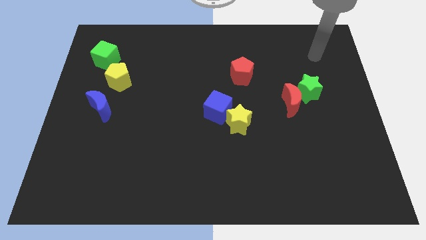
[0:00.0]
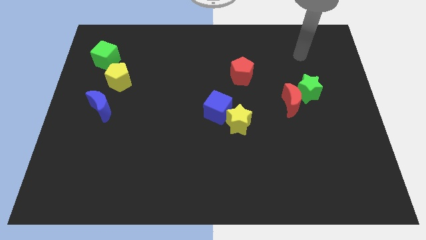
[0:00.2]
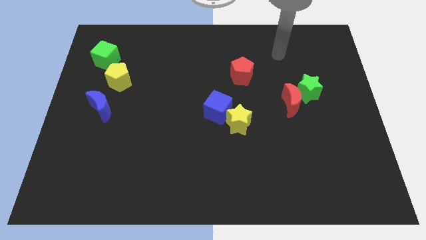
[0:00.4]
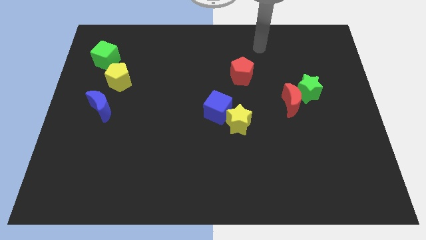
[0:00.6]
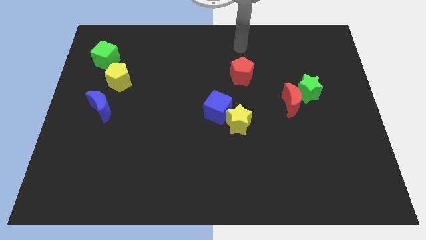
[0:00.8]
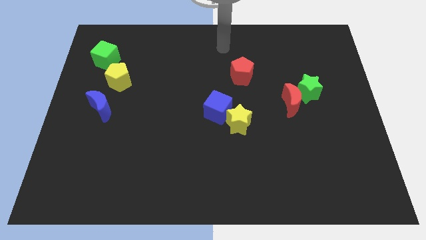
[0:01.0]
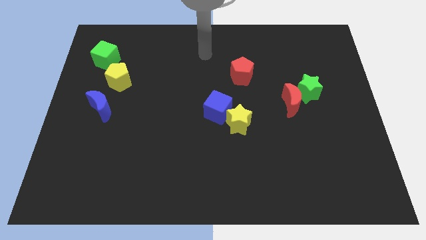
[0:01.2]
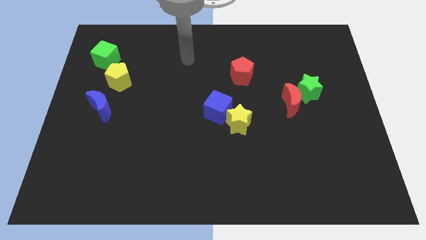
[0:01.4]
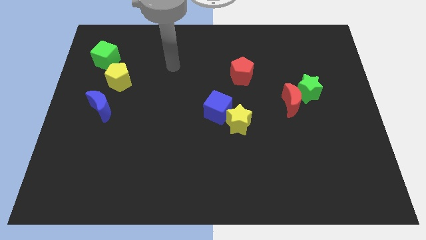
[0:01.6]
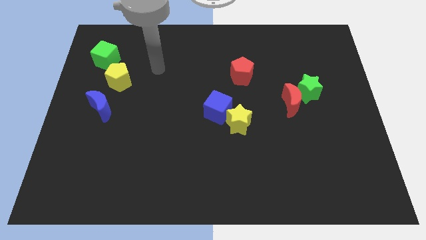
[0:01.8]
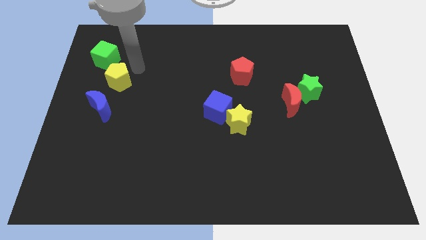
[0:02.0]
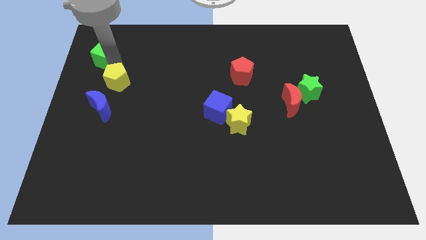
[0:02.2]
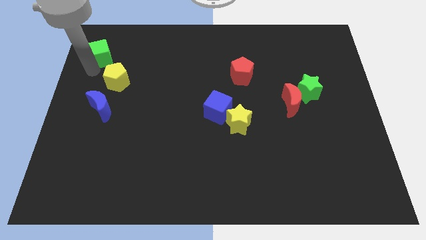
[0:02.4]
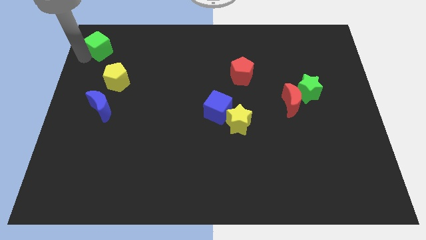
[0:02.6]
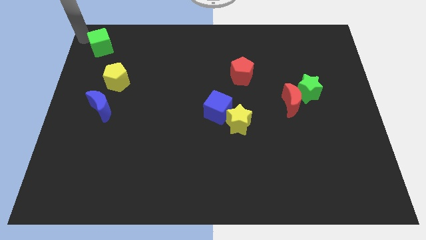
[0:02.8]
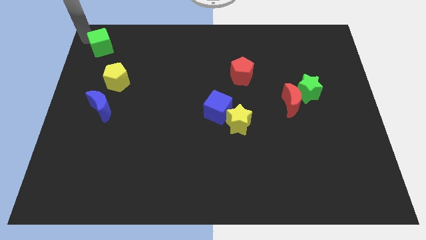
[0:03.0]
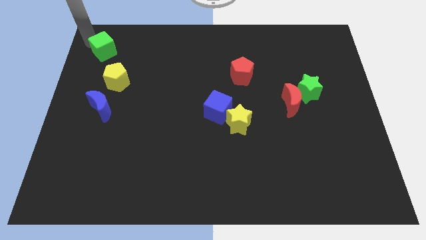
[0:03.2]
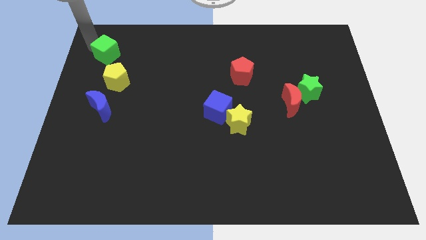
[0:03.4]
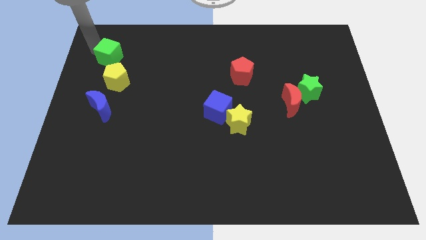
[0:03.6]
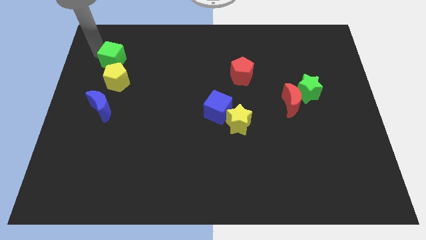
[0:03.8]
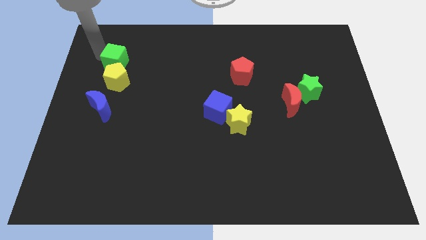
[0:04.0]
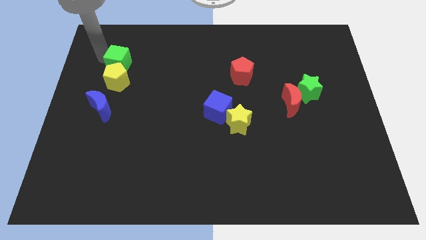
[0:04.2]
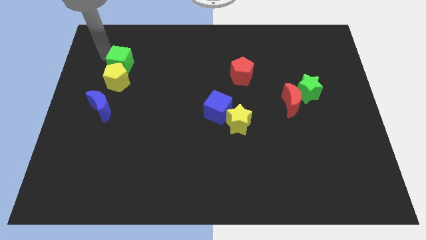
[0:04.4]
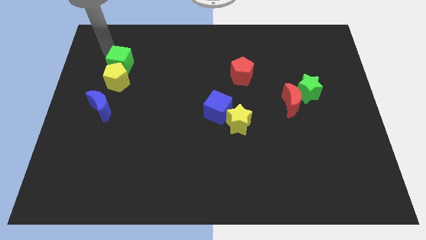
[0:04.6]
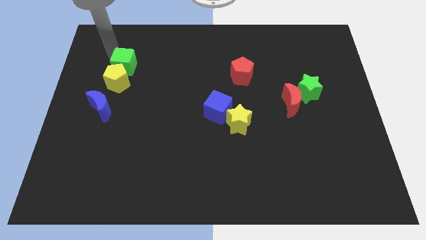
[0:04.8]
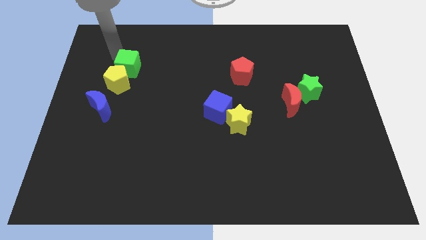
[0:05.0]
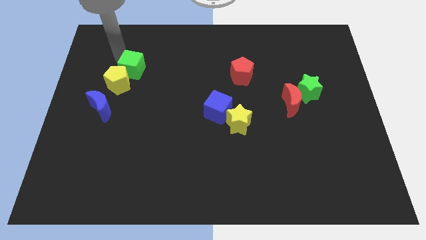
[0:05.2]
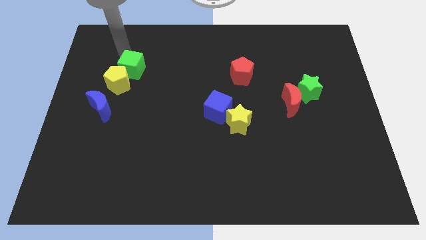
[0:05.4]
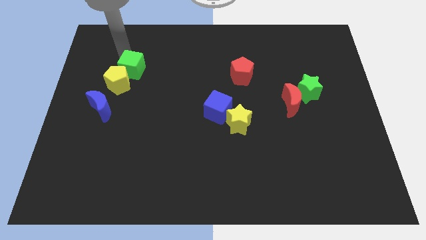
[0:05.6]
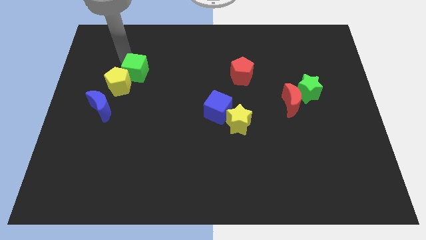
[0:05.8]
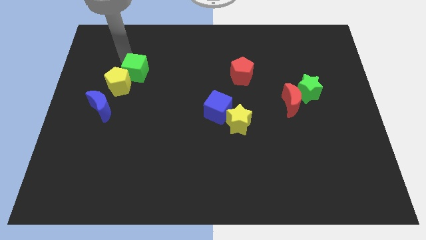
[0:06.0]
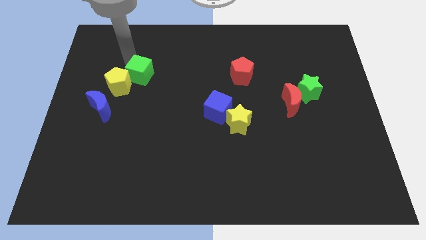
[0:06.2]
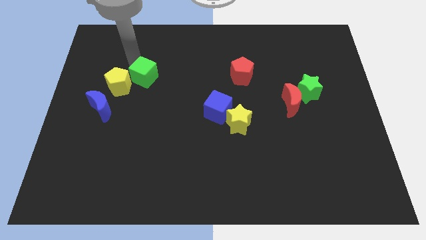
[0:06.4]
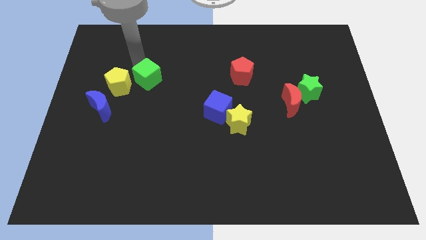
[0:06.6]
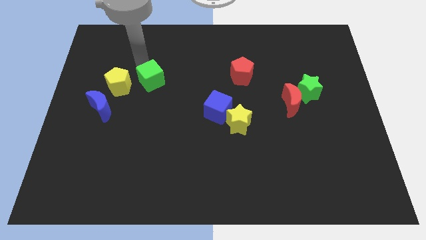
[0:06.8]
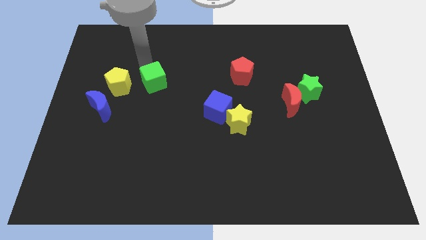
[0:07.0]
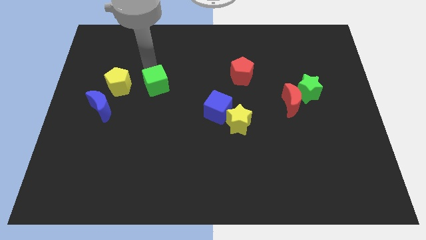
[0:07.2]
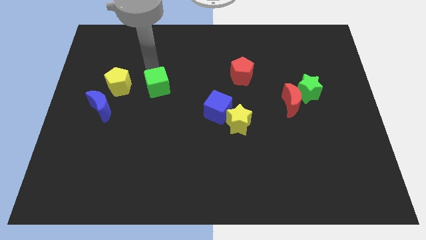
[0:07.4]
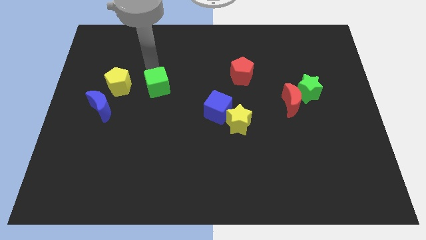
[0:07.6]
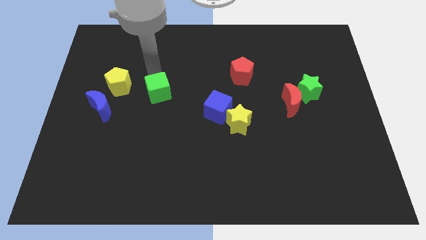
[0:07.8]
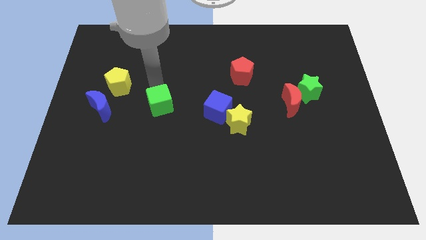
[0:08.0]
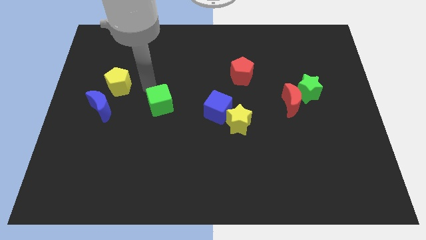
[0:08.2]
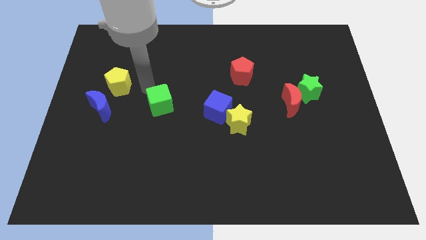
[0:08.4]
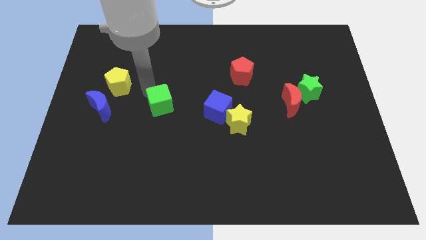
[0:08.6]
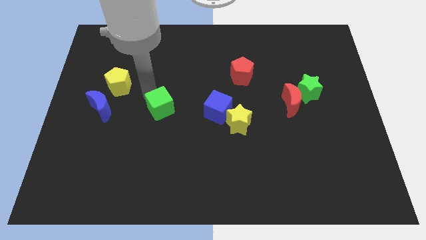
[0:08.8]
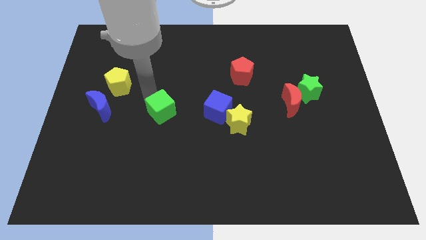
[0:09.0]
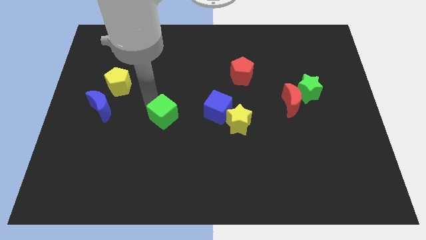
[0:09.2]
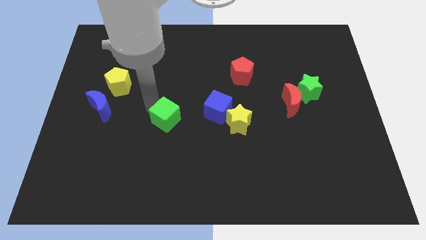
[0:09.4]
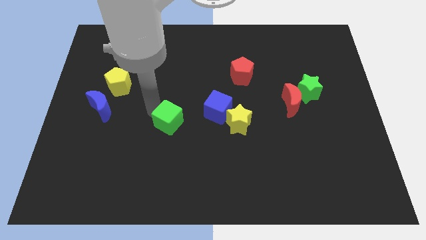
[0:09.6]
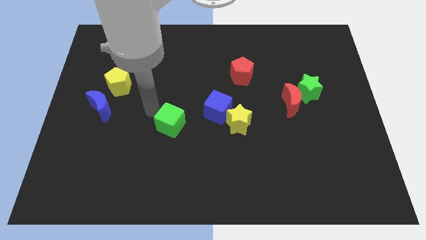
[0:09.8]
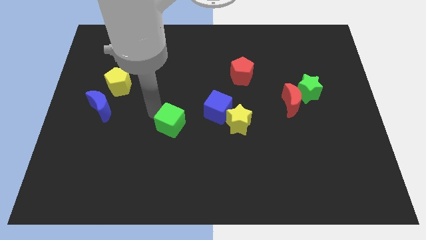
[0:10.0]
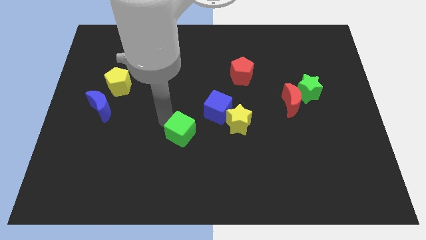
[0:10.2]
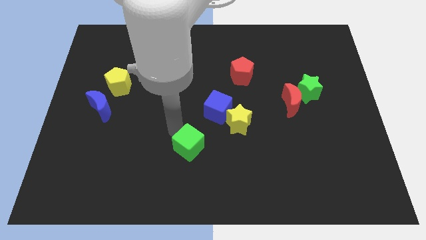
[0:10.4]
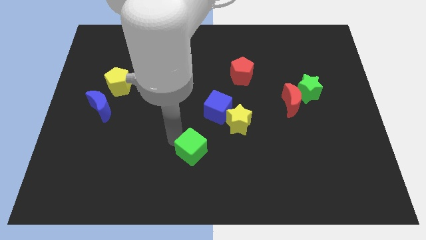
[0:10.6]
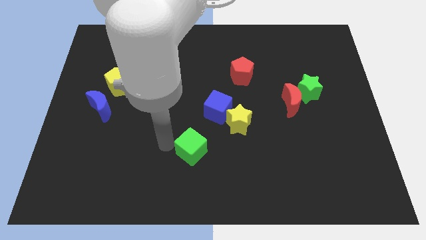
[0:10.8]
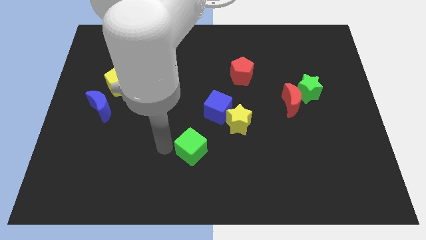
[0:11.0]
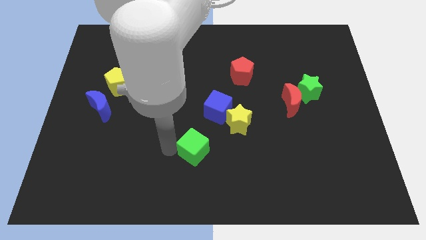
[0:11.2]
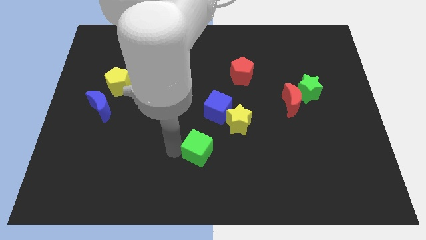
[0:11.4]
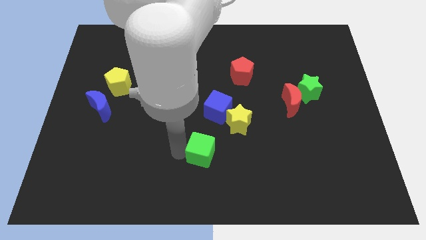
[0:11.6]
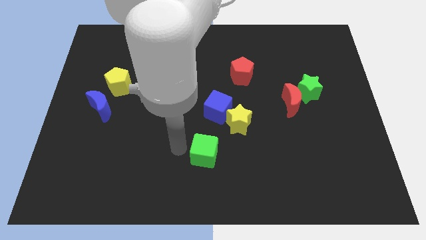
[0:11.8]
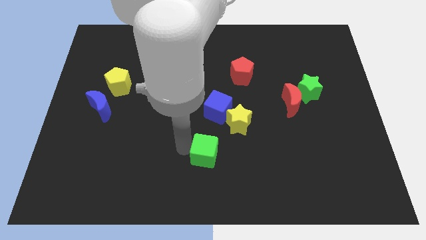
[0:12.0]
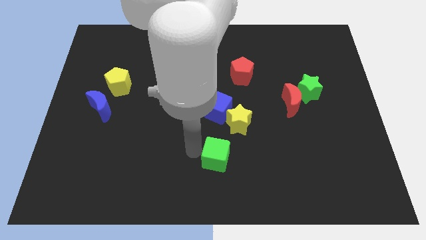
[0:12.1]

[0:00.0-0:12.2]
push the green cube to the bottom side of the yellow star
